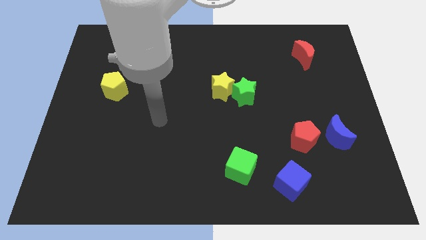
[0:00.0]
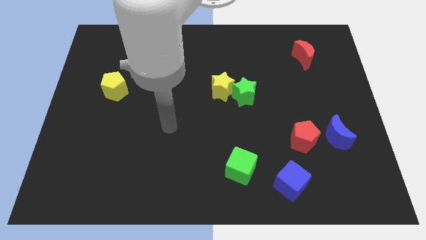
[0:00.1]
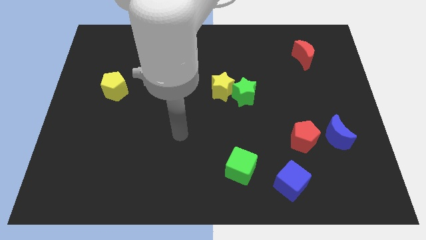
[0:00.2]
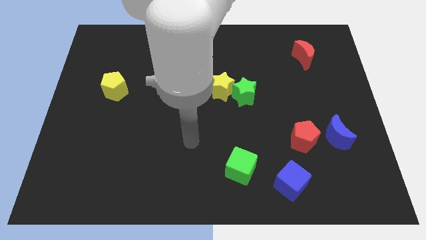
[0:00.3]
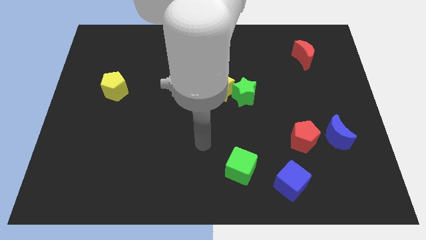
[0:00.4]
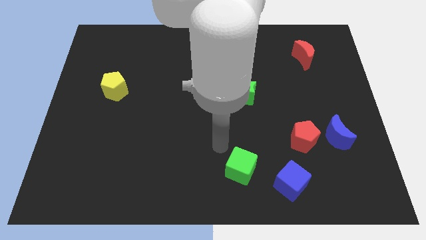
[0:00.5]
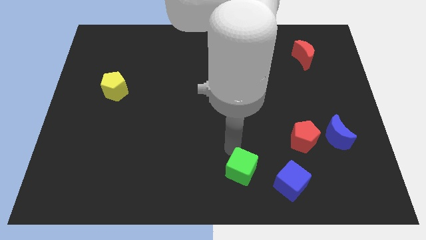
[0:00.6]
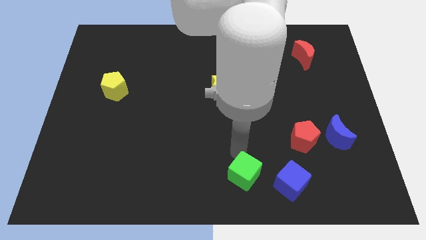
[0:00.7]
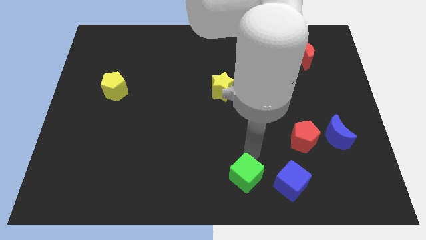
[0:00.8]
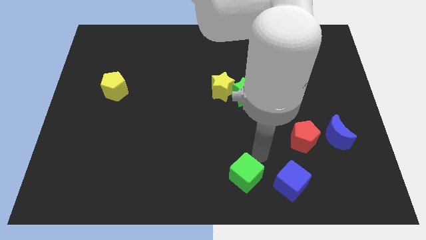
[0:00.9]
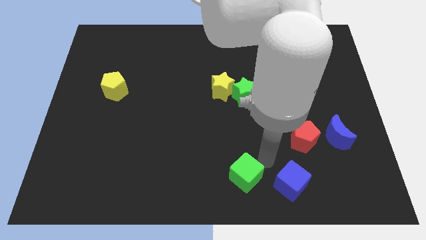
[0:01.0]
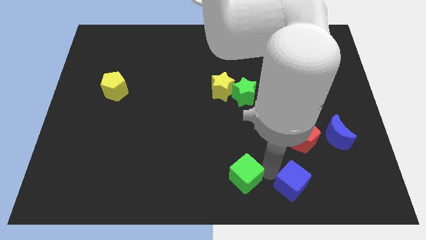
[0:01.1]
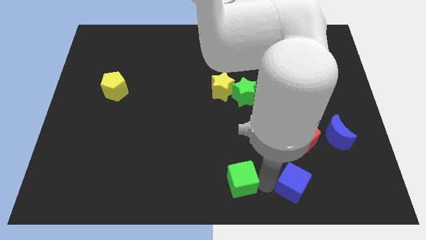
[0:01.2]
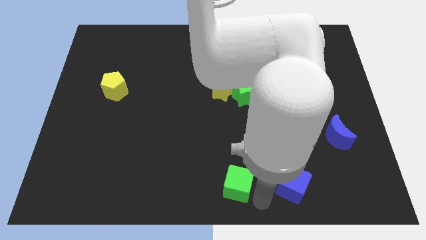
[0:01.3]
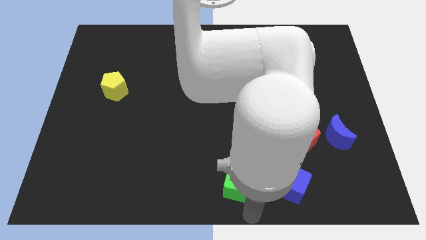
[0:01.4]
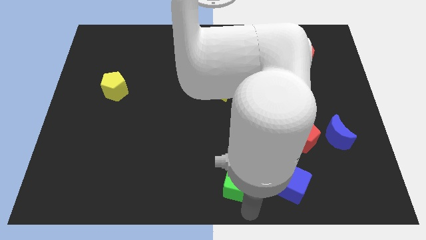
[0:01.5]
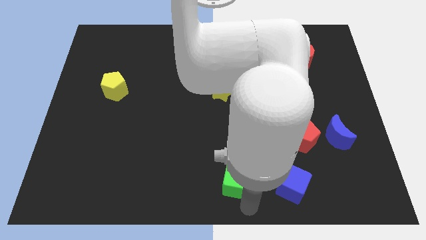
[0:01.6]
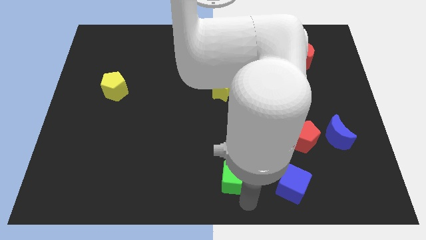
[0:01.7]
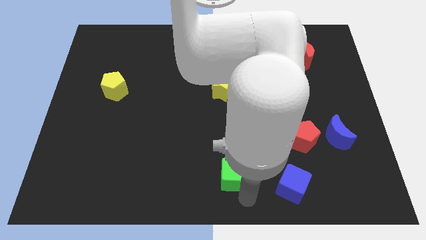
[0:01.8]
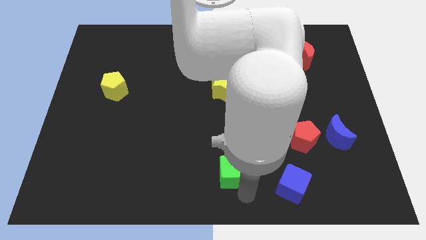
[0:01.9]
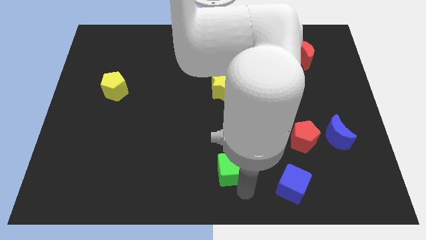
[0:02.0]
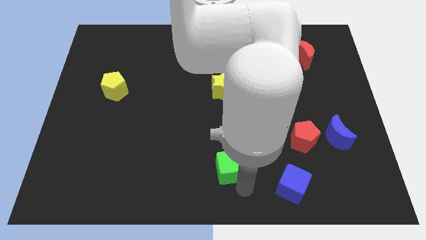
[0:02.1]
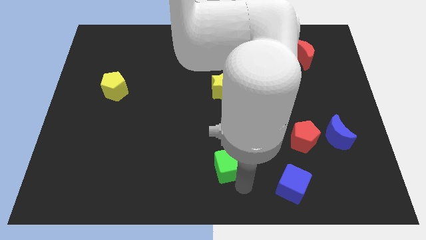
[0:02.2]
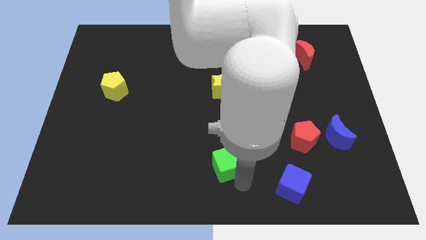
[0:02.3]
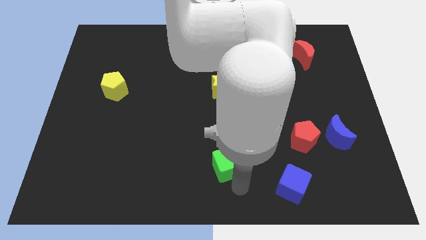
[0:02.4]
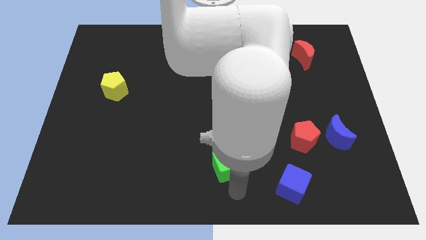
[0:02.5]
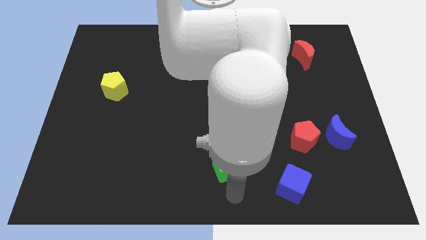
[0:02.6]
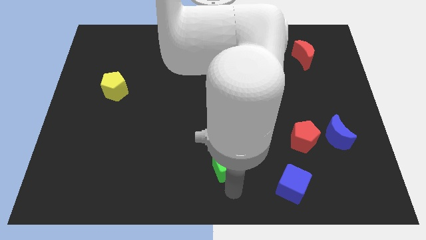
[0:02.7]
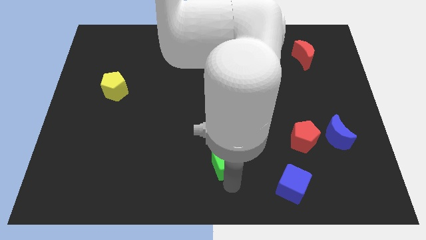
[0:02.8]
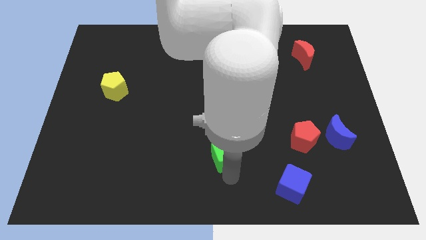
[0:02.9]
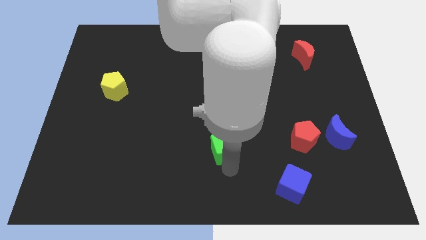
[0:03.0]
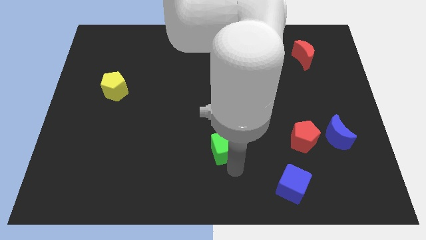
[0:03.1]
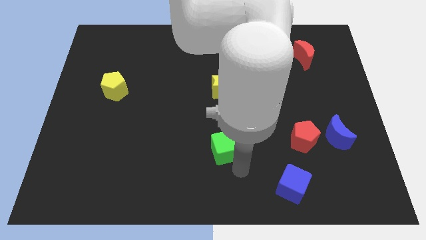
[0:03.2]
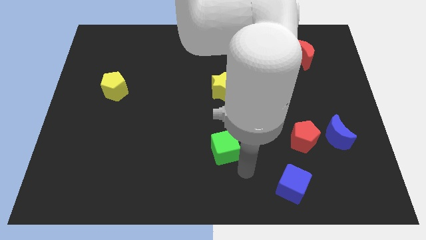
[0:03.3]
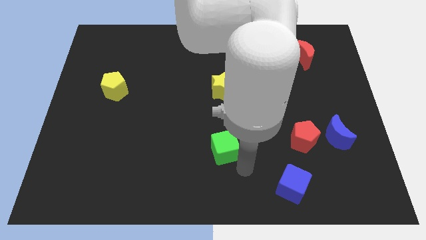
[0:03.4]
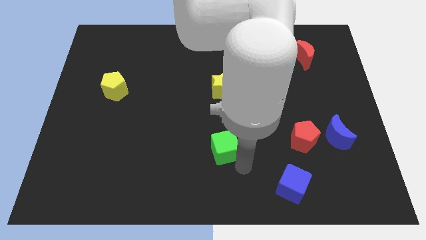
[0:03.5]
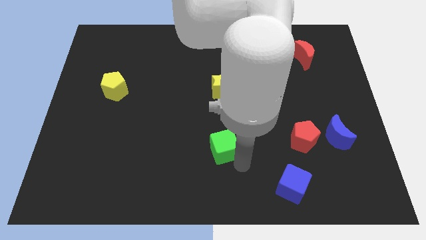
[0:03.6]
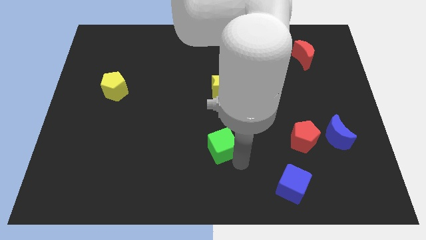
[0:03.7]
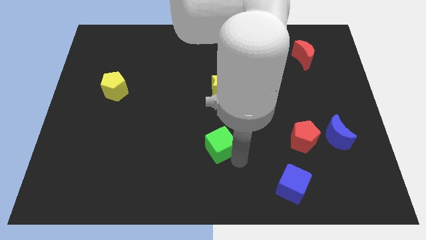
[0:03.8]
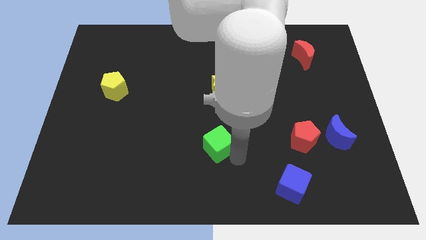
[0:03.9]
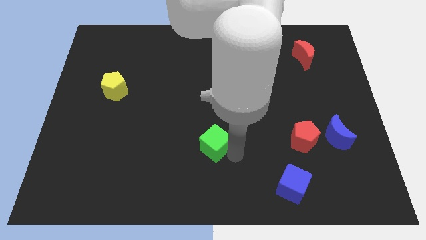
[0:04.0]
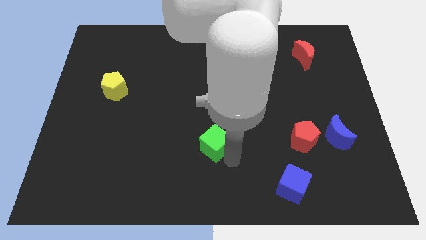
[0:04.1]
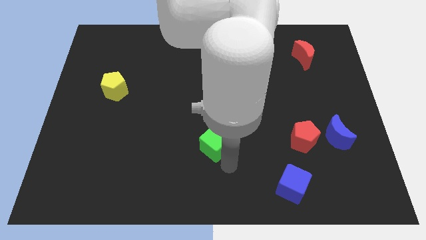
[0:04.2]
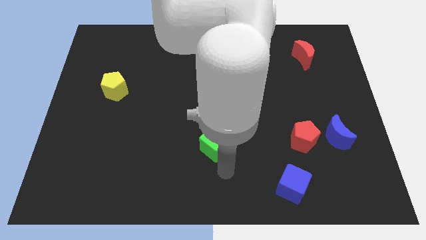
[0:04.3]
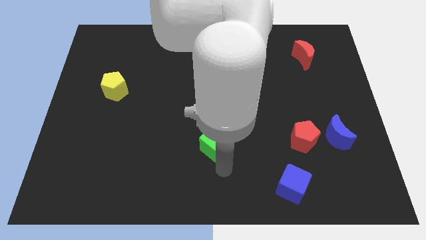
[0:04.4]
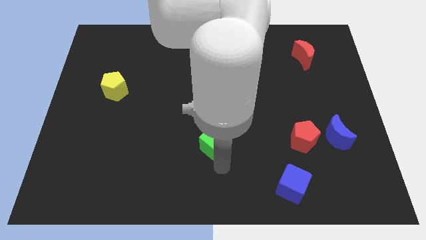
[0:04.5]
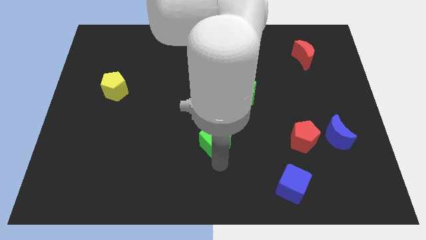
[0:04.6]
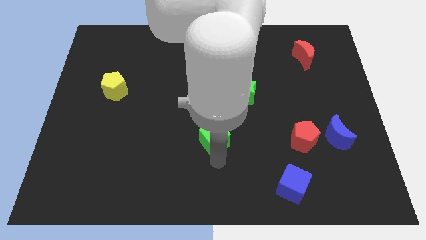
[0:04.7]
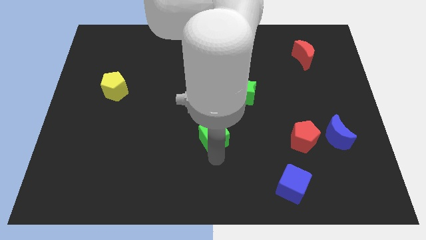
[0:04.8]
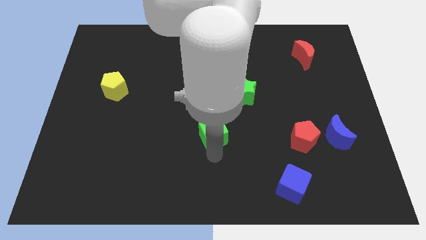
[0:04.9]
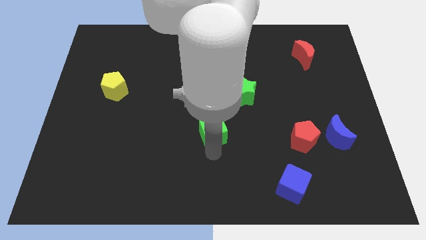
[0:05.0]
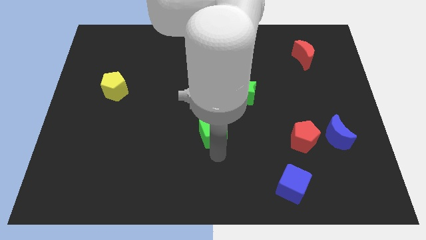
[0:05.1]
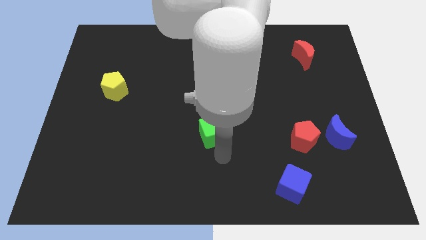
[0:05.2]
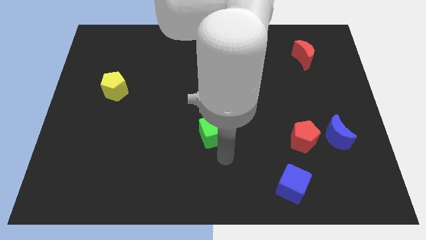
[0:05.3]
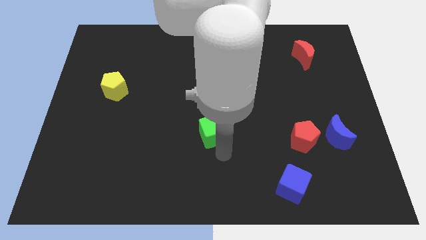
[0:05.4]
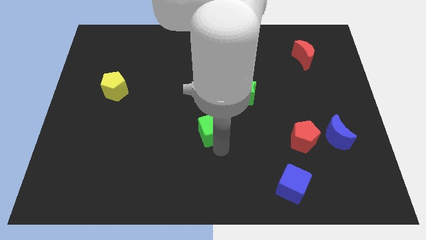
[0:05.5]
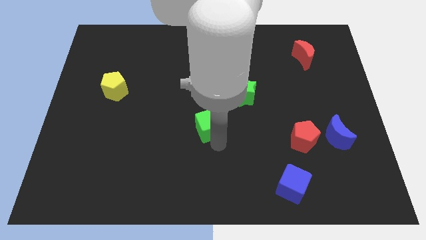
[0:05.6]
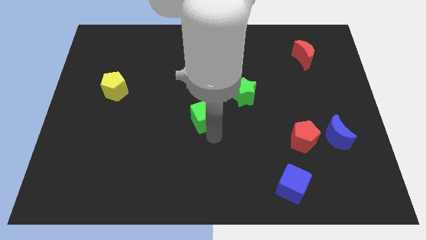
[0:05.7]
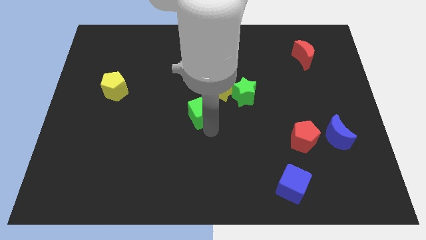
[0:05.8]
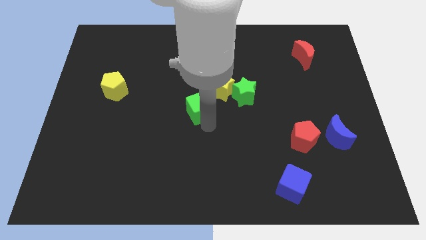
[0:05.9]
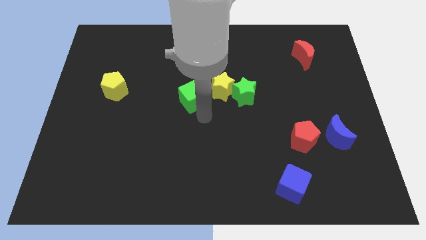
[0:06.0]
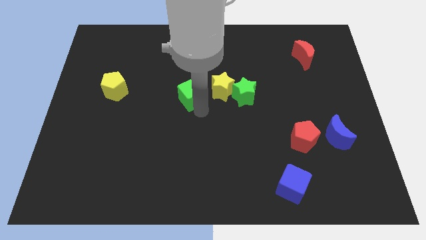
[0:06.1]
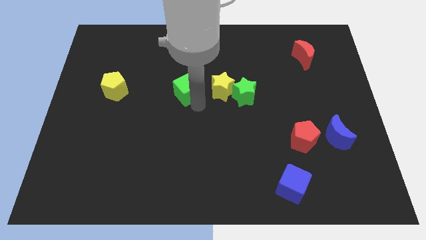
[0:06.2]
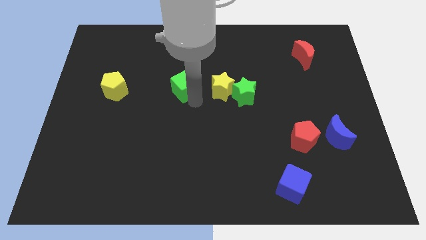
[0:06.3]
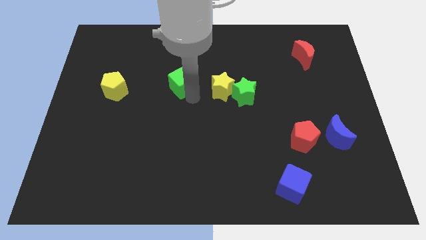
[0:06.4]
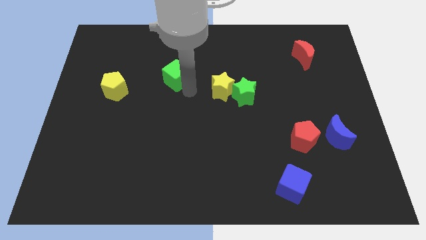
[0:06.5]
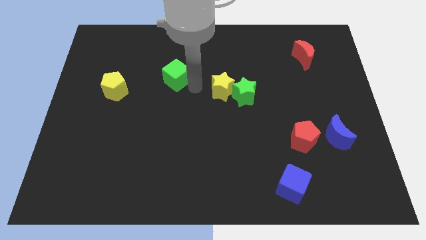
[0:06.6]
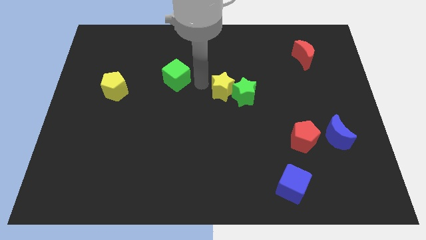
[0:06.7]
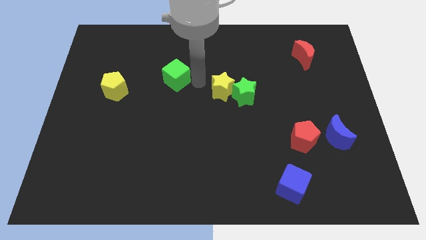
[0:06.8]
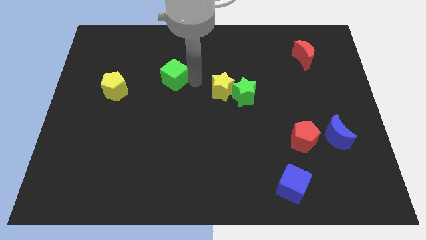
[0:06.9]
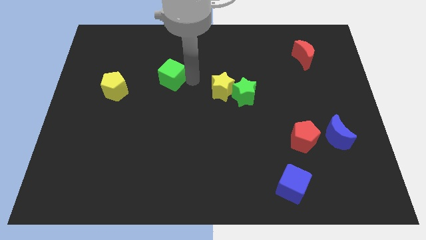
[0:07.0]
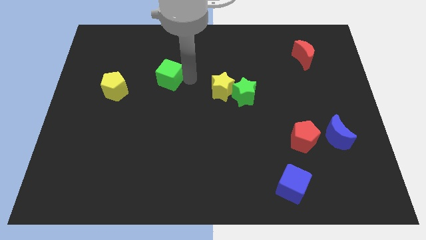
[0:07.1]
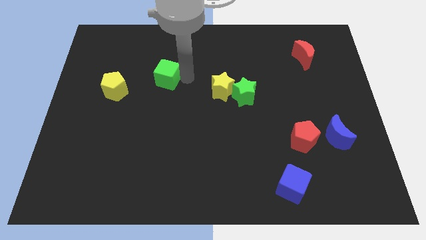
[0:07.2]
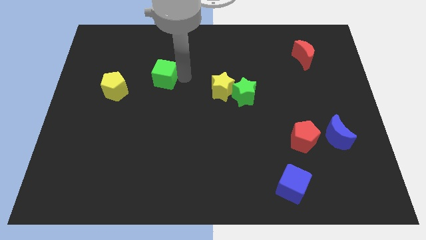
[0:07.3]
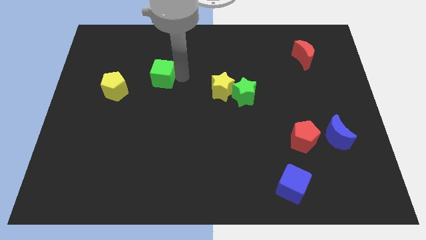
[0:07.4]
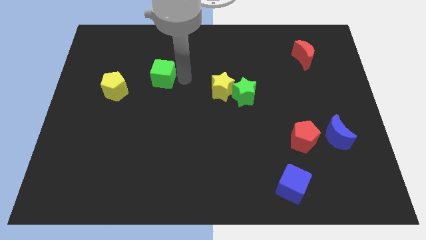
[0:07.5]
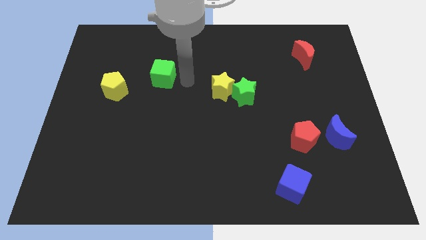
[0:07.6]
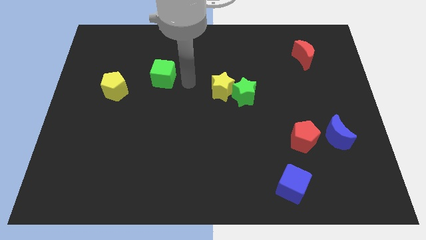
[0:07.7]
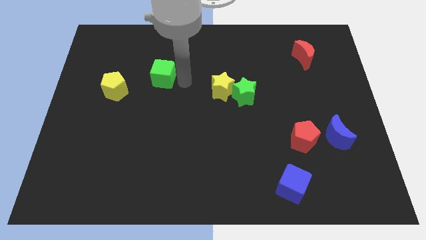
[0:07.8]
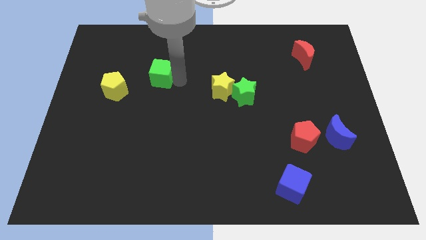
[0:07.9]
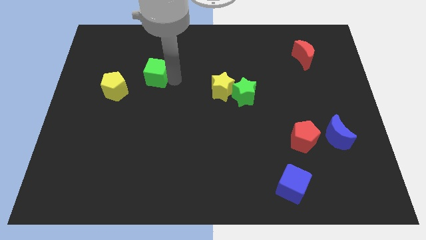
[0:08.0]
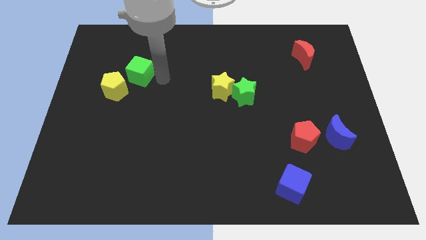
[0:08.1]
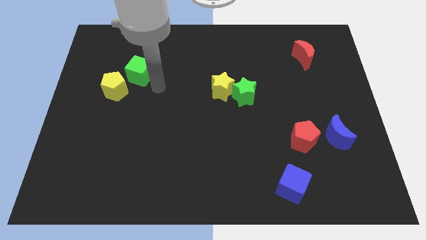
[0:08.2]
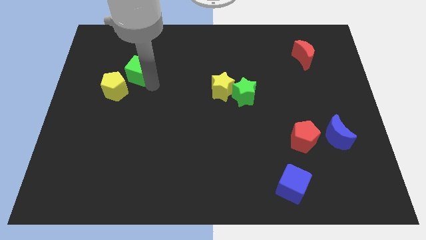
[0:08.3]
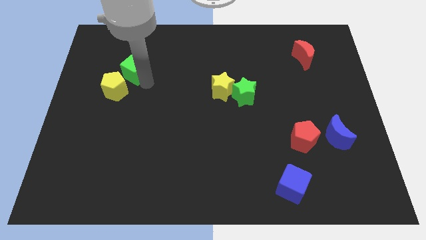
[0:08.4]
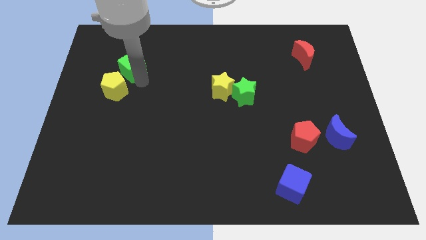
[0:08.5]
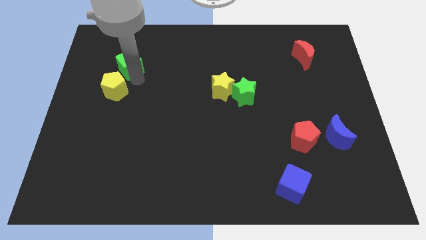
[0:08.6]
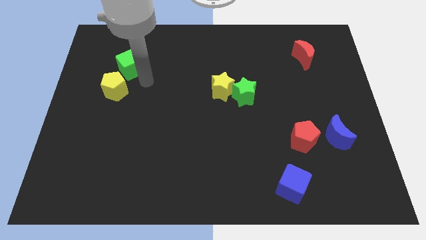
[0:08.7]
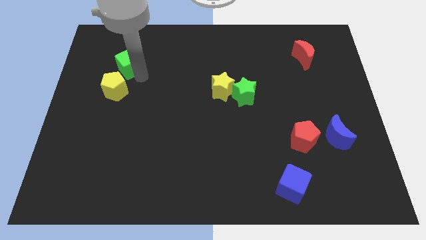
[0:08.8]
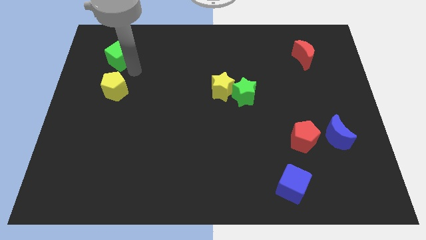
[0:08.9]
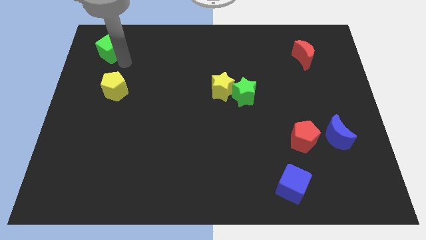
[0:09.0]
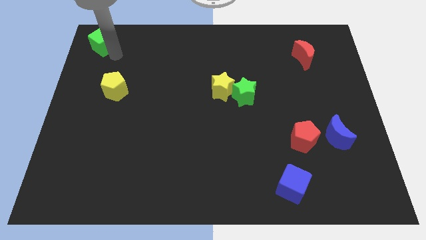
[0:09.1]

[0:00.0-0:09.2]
push the green cube to the upper left corner
